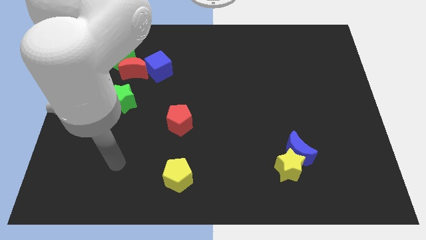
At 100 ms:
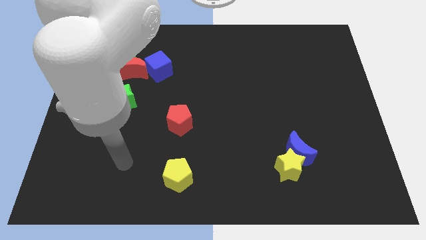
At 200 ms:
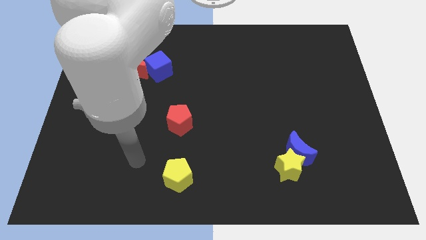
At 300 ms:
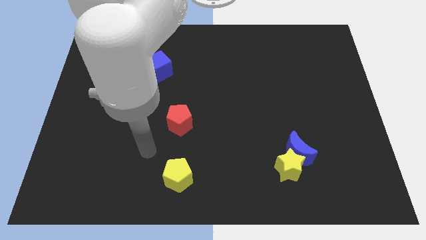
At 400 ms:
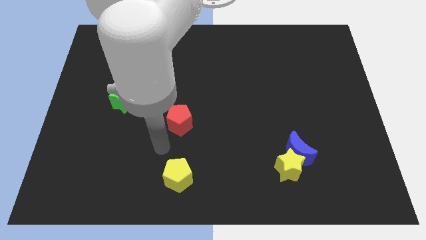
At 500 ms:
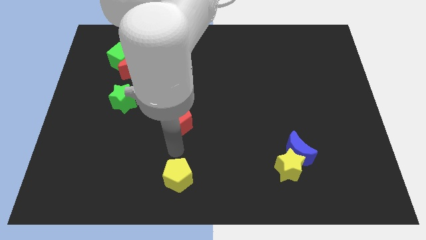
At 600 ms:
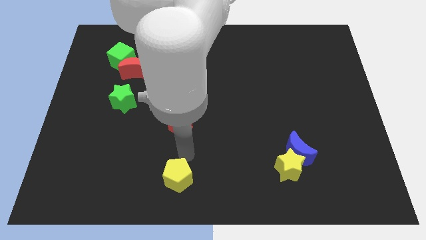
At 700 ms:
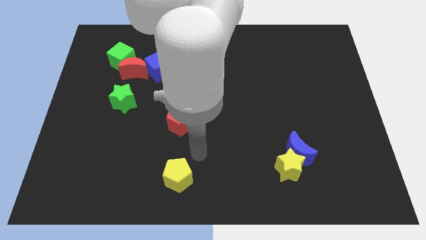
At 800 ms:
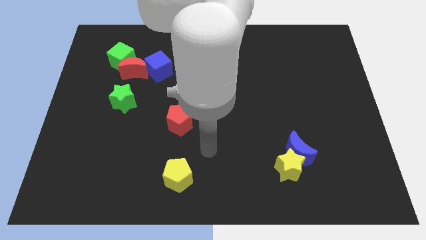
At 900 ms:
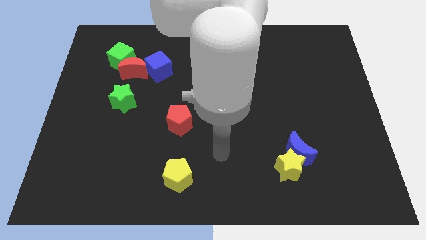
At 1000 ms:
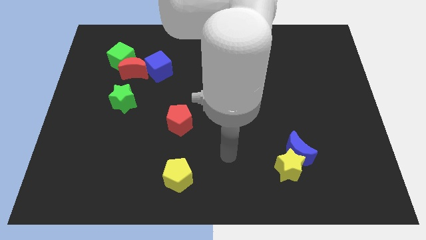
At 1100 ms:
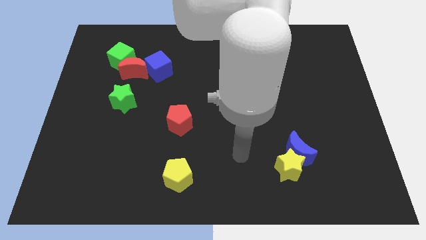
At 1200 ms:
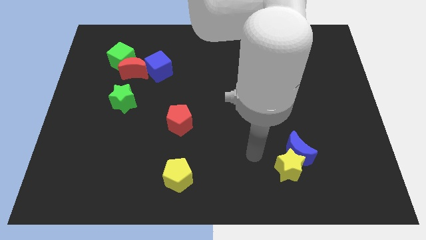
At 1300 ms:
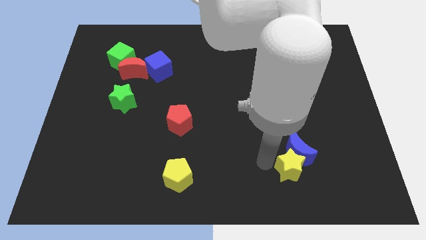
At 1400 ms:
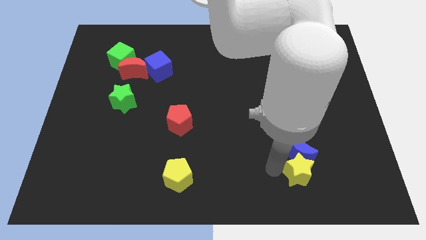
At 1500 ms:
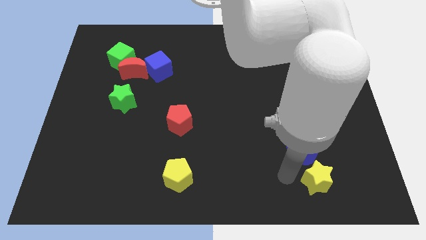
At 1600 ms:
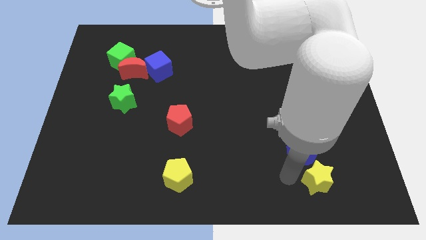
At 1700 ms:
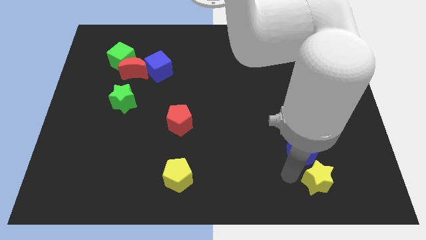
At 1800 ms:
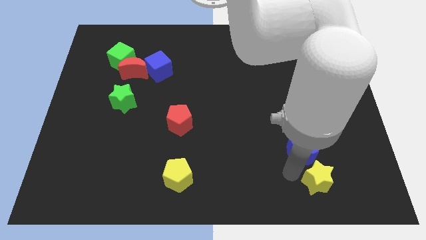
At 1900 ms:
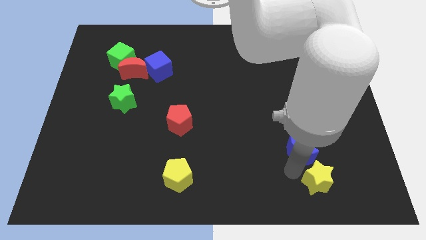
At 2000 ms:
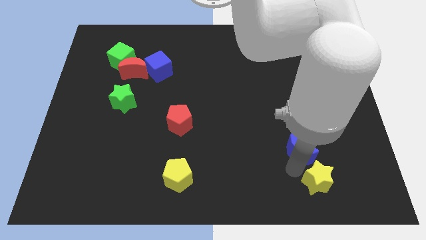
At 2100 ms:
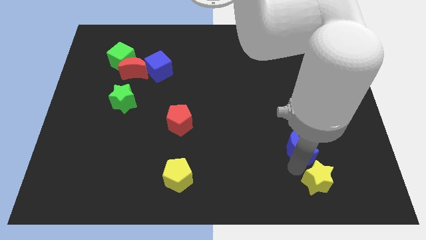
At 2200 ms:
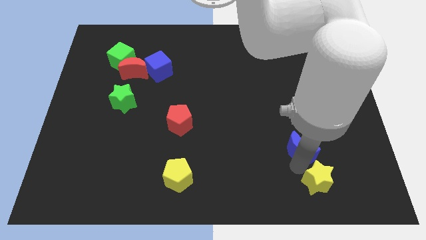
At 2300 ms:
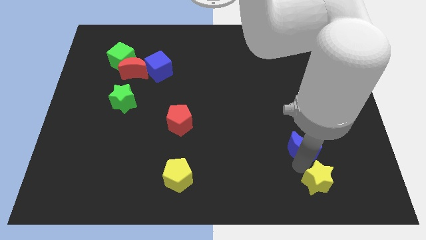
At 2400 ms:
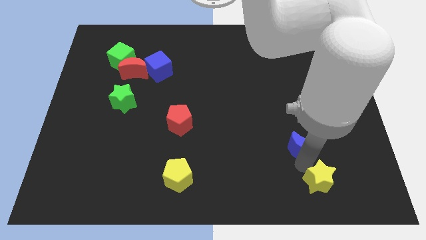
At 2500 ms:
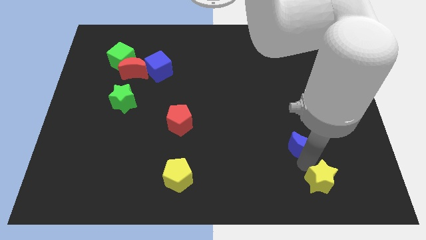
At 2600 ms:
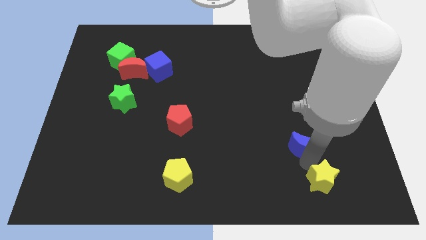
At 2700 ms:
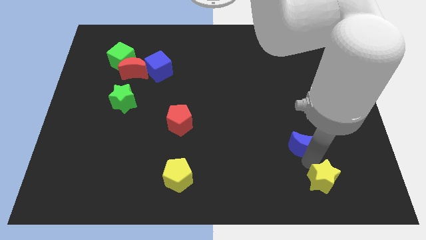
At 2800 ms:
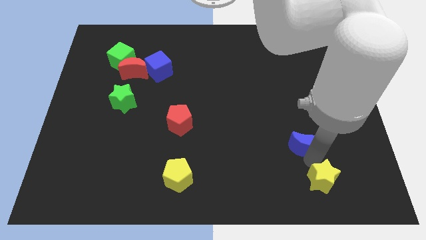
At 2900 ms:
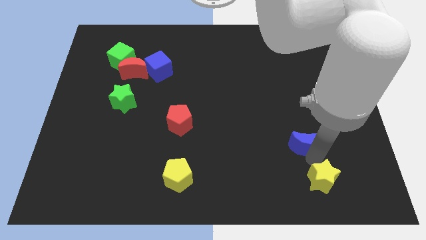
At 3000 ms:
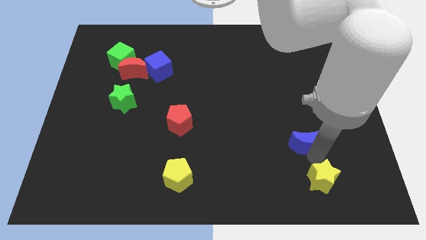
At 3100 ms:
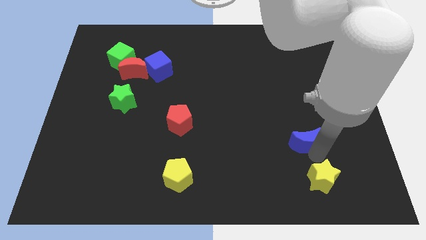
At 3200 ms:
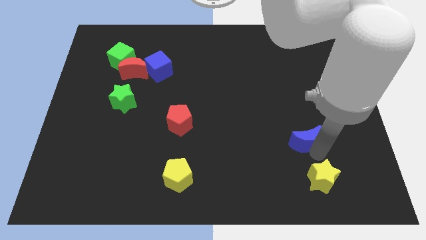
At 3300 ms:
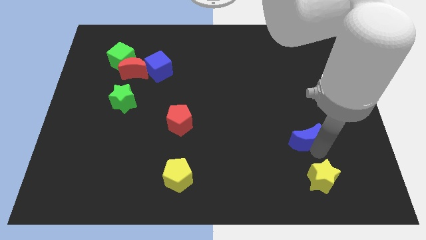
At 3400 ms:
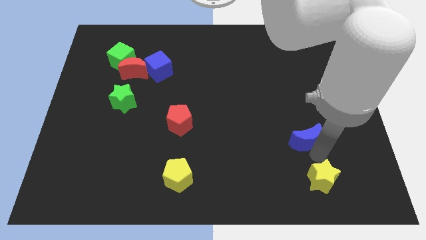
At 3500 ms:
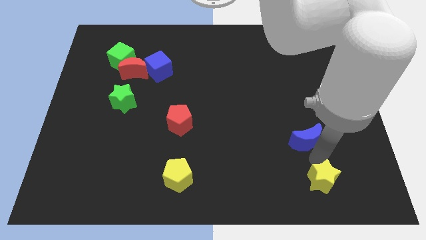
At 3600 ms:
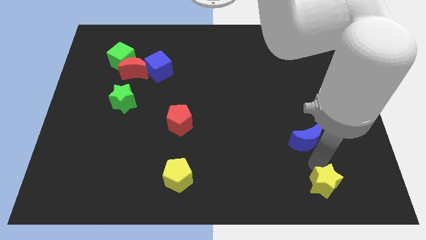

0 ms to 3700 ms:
move the blue moon away from the yellow star

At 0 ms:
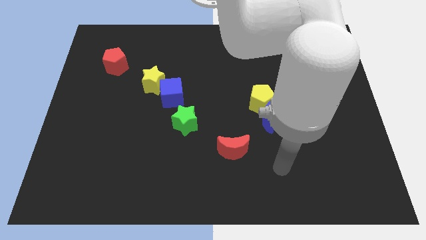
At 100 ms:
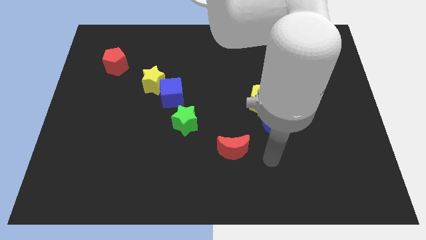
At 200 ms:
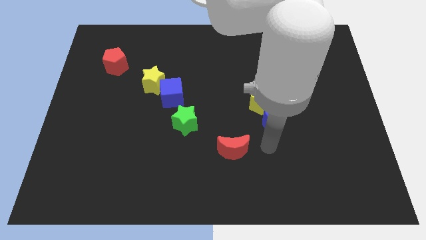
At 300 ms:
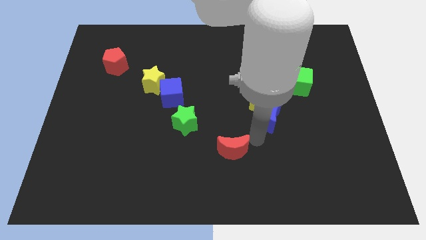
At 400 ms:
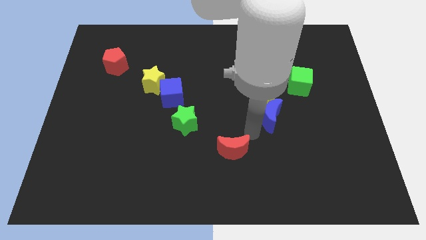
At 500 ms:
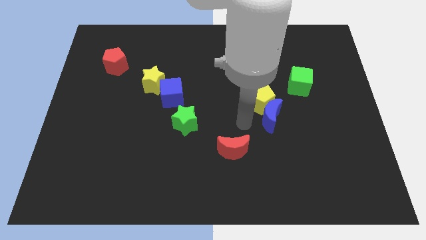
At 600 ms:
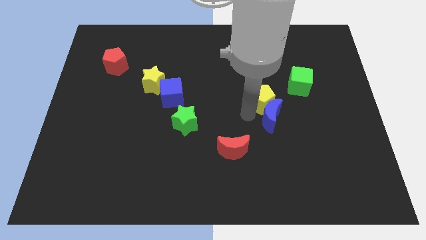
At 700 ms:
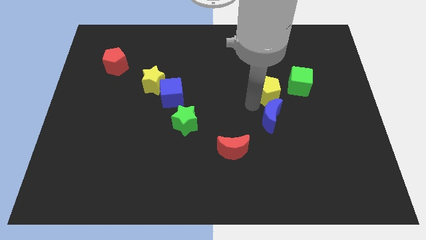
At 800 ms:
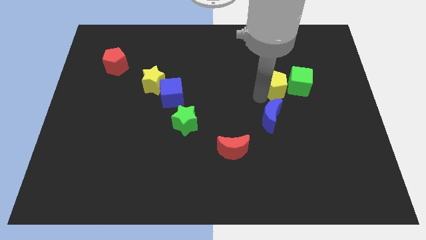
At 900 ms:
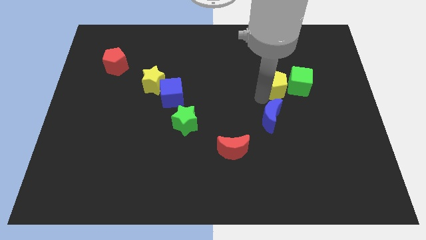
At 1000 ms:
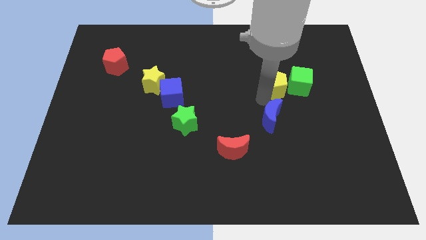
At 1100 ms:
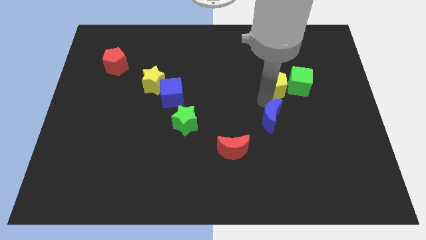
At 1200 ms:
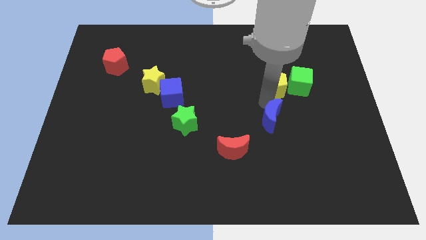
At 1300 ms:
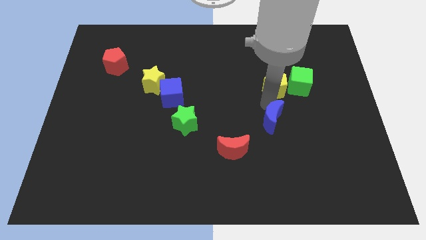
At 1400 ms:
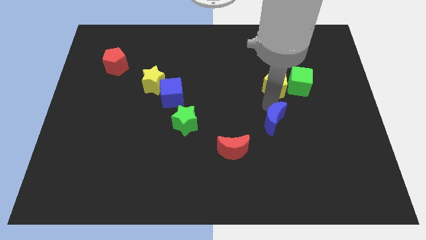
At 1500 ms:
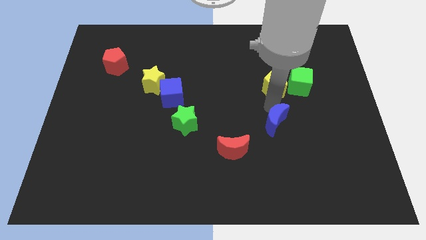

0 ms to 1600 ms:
pull the blue moon apart from the yellow pentagon

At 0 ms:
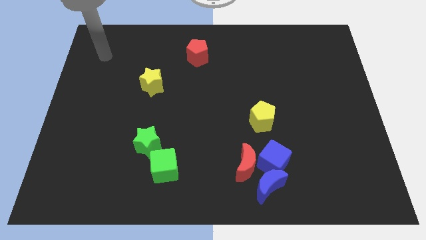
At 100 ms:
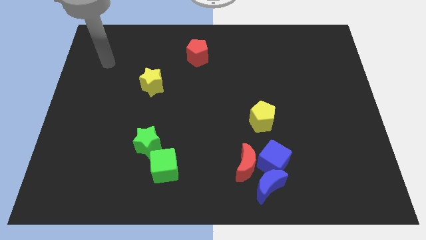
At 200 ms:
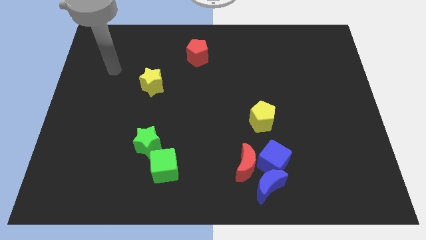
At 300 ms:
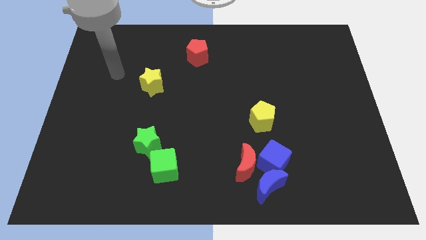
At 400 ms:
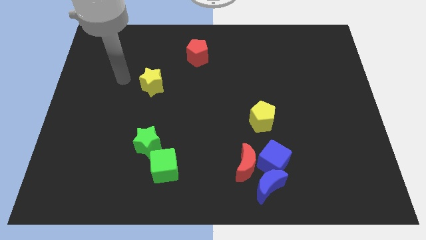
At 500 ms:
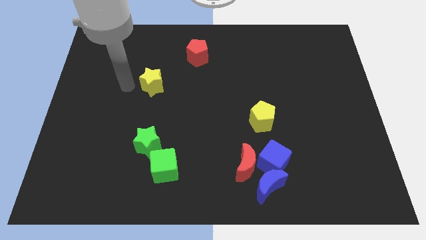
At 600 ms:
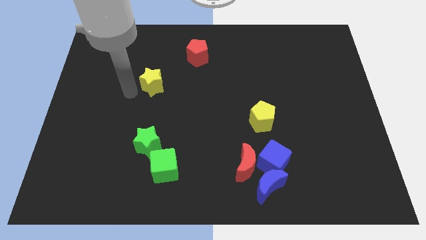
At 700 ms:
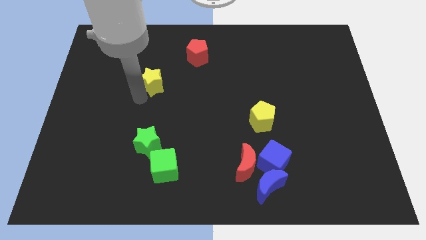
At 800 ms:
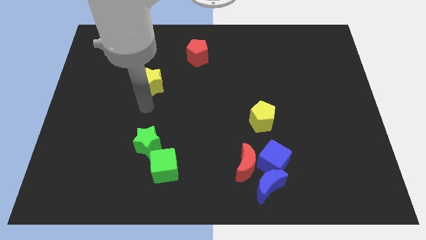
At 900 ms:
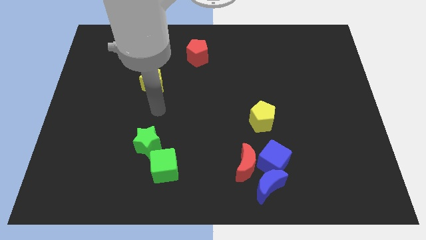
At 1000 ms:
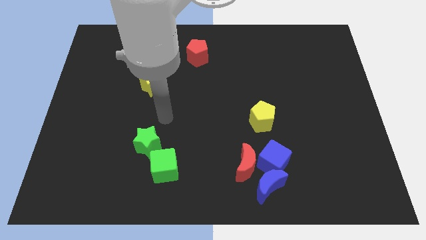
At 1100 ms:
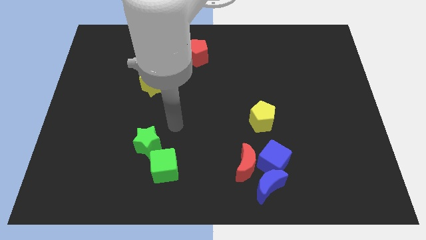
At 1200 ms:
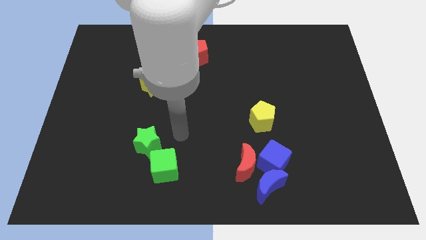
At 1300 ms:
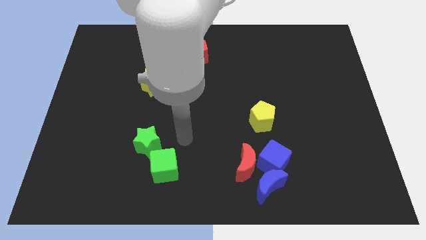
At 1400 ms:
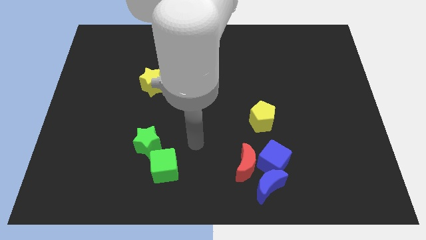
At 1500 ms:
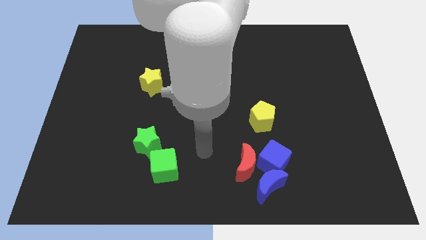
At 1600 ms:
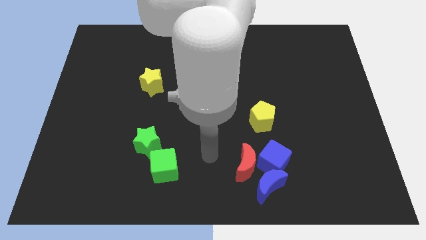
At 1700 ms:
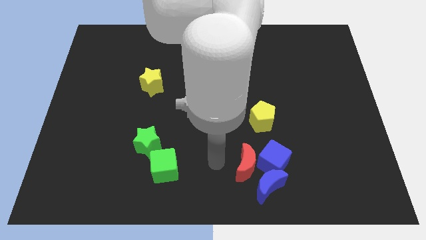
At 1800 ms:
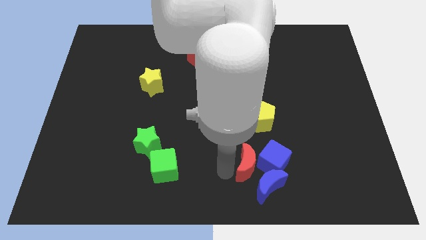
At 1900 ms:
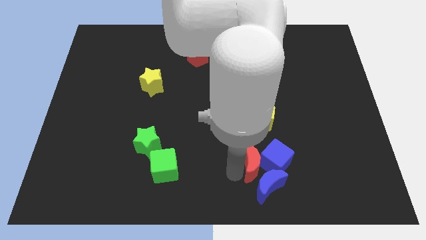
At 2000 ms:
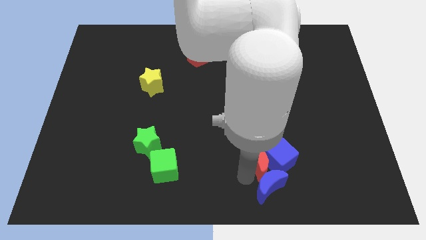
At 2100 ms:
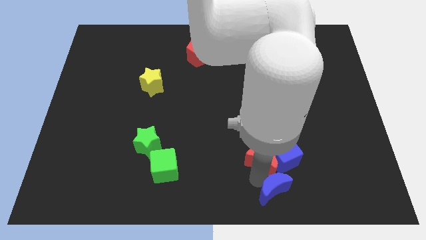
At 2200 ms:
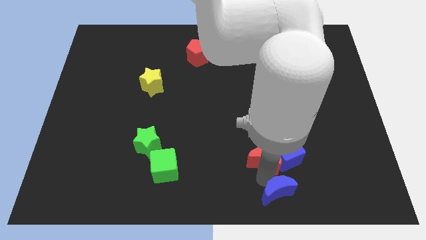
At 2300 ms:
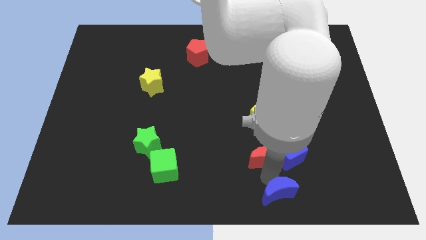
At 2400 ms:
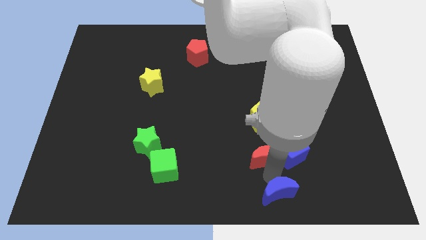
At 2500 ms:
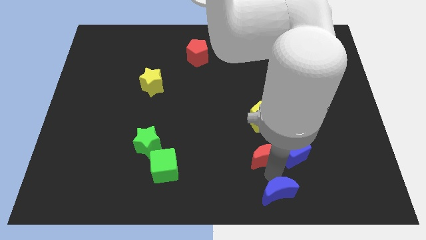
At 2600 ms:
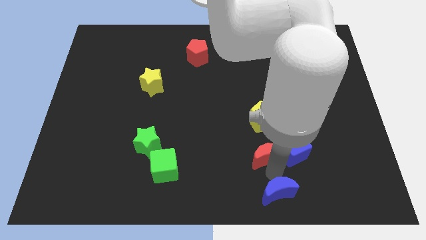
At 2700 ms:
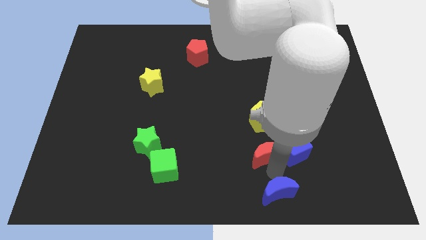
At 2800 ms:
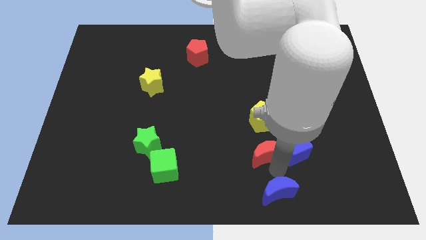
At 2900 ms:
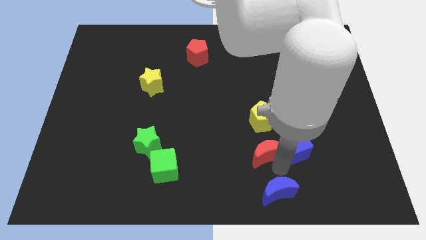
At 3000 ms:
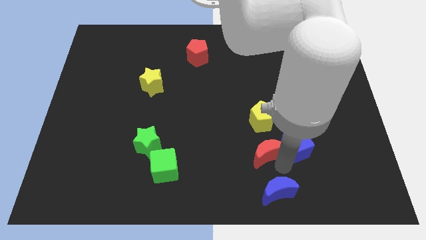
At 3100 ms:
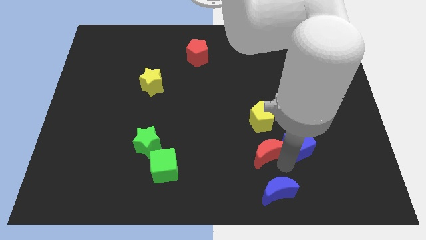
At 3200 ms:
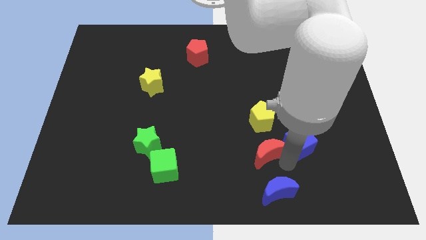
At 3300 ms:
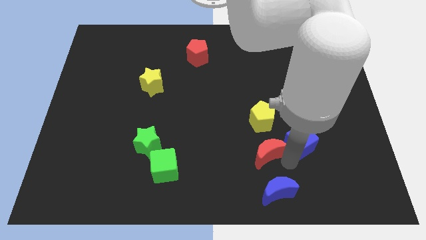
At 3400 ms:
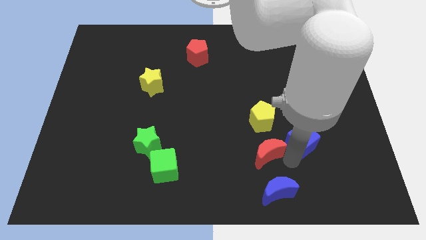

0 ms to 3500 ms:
move the blue cube away from the red moon and blue moon

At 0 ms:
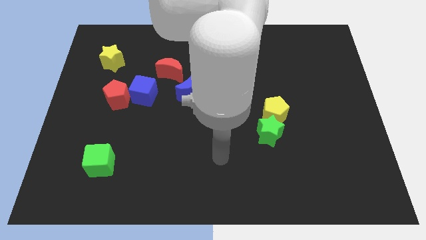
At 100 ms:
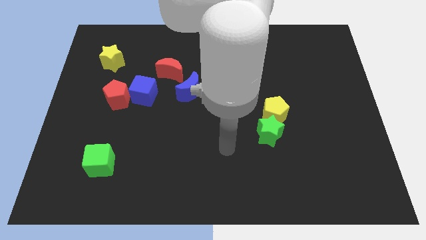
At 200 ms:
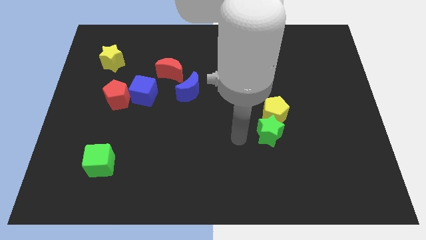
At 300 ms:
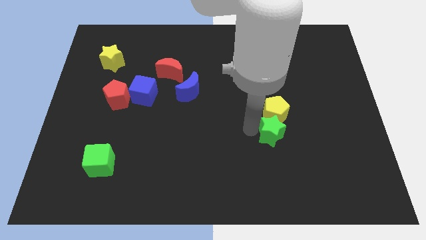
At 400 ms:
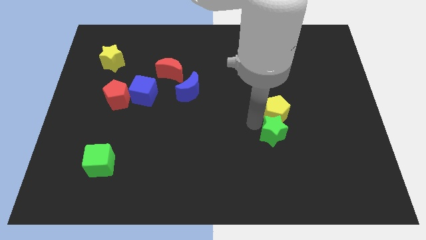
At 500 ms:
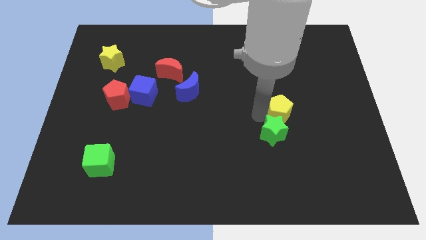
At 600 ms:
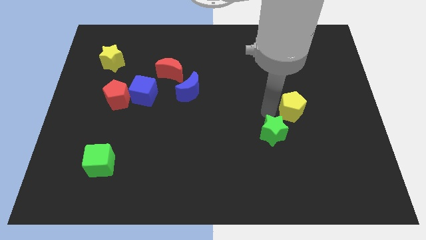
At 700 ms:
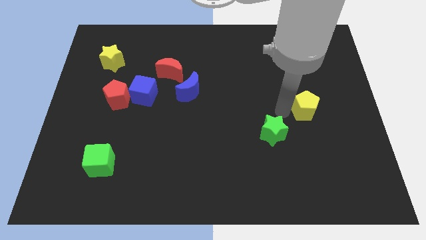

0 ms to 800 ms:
move the green star away from the yellow pentagon
